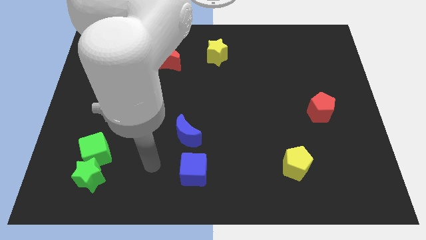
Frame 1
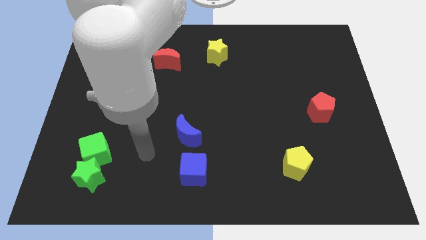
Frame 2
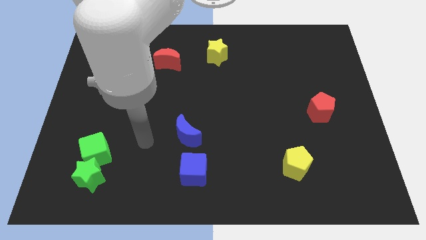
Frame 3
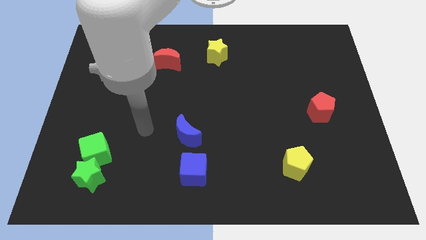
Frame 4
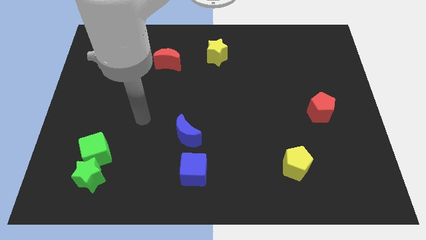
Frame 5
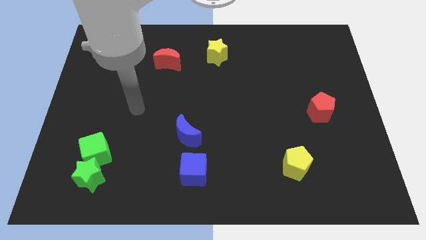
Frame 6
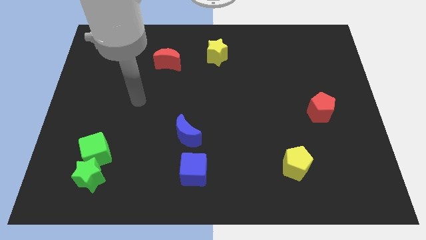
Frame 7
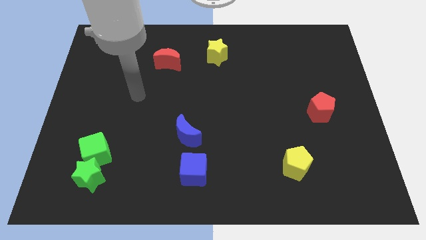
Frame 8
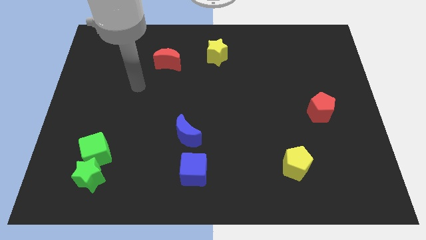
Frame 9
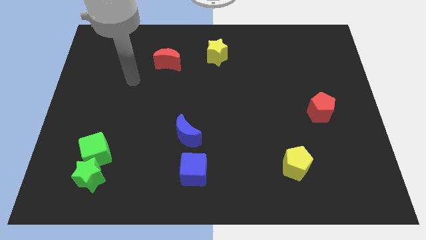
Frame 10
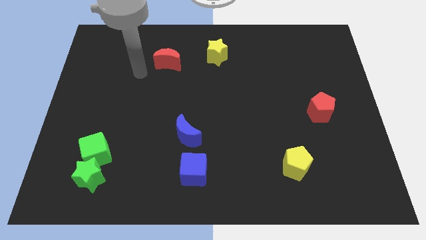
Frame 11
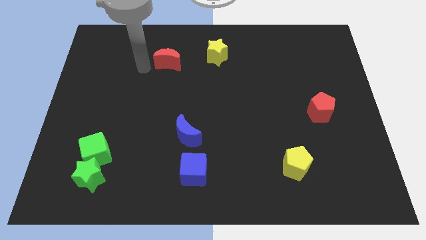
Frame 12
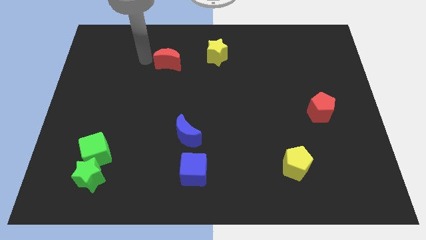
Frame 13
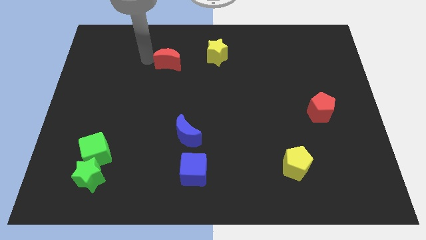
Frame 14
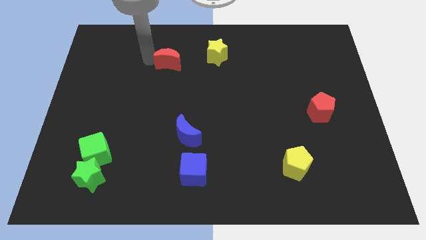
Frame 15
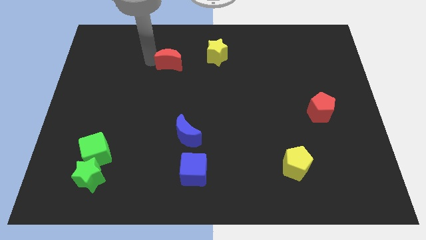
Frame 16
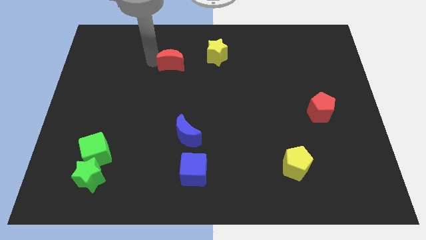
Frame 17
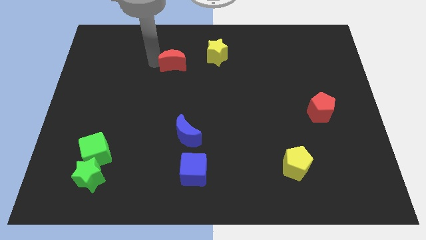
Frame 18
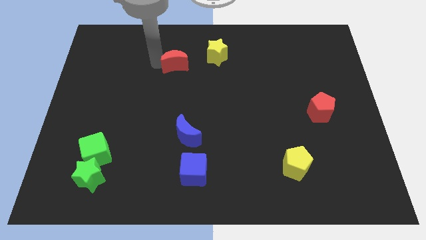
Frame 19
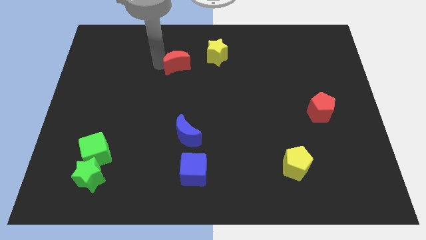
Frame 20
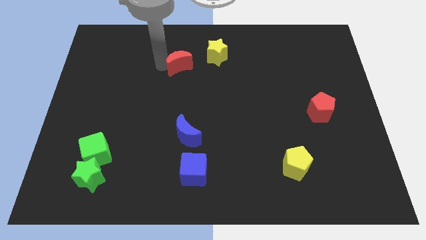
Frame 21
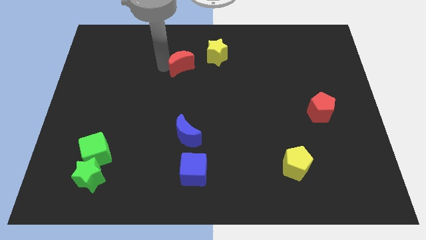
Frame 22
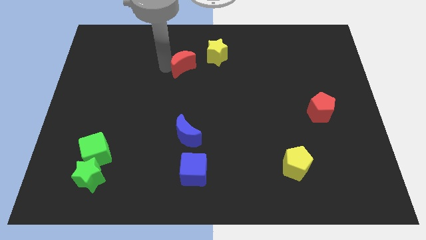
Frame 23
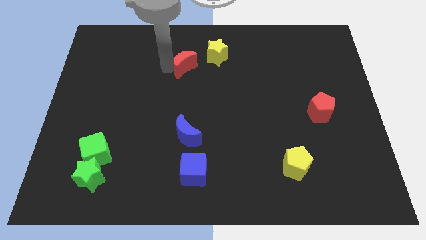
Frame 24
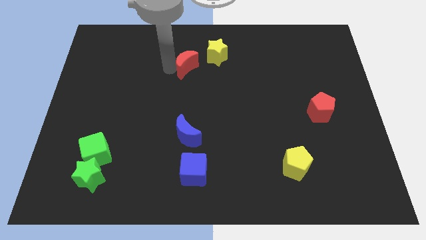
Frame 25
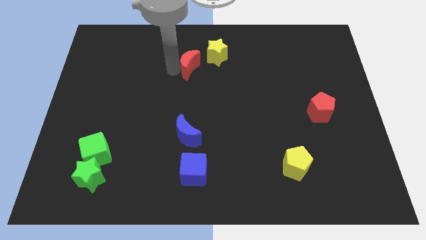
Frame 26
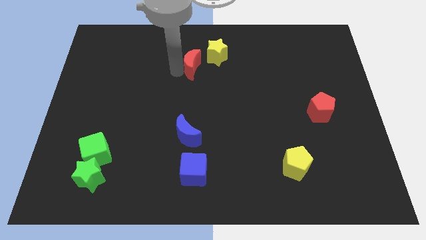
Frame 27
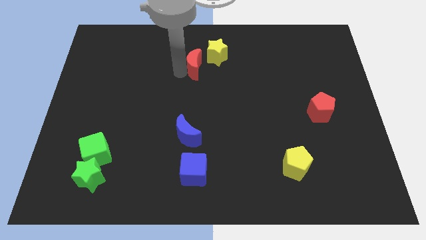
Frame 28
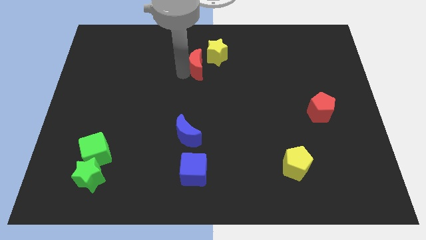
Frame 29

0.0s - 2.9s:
move the red moon to the right a little

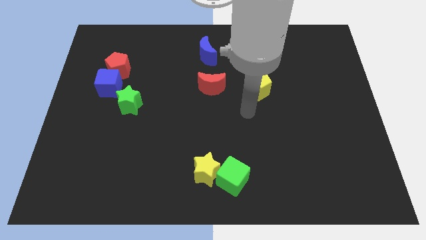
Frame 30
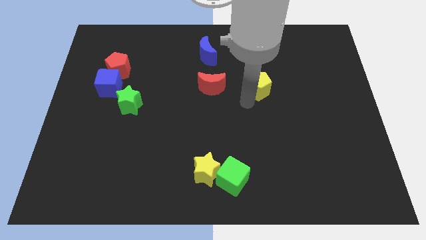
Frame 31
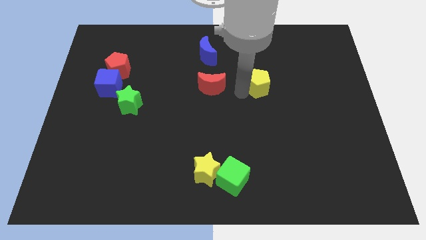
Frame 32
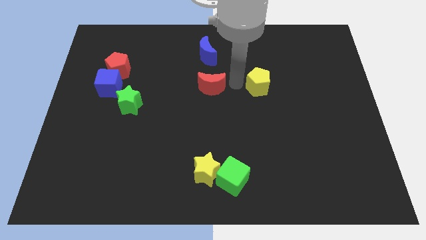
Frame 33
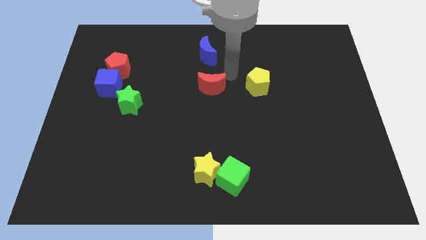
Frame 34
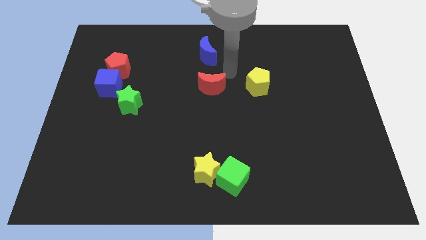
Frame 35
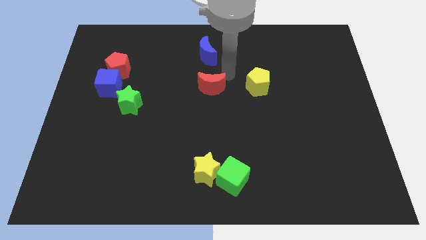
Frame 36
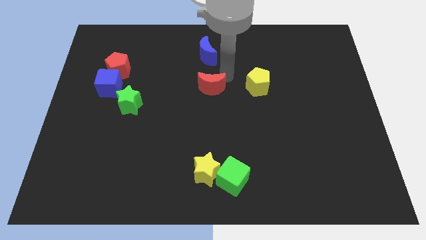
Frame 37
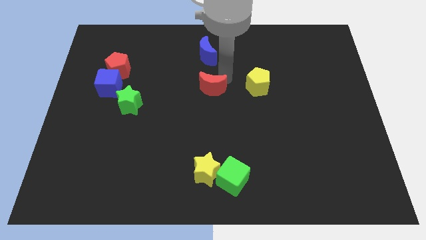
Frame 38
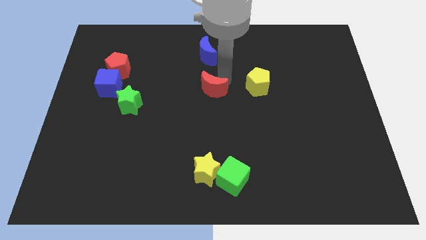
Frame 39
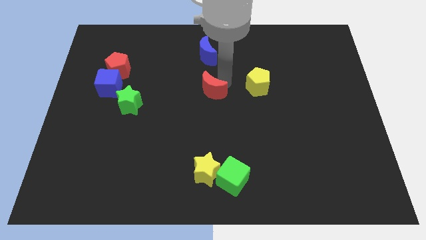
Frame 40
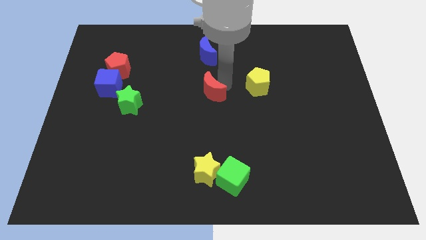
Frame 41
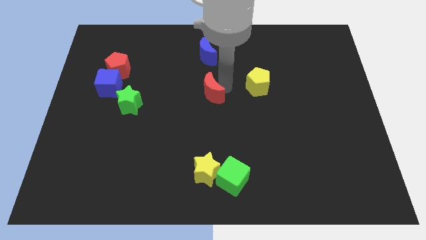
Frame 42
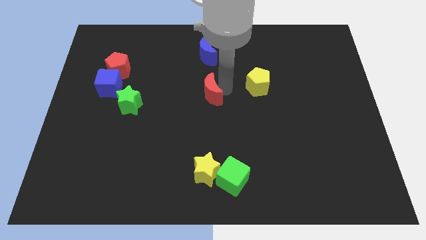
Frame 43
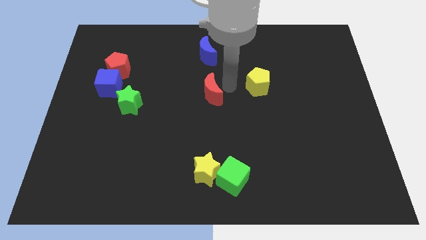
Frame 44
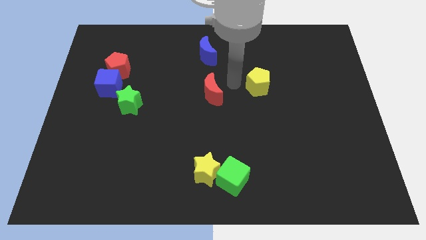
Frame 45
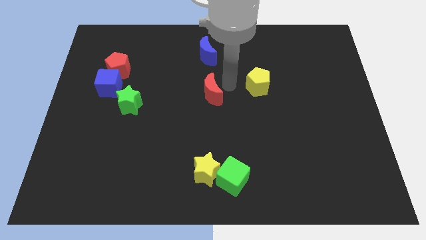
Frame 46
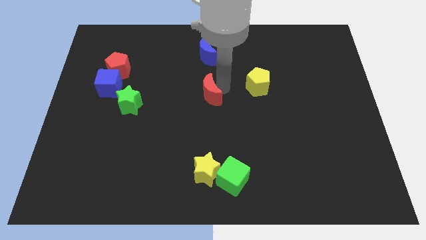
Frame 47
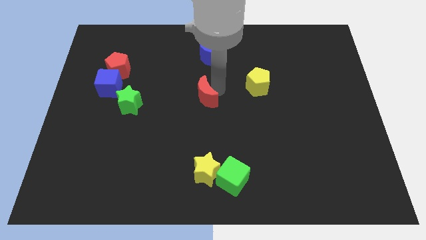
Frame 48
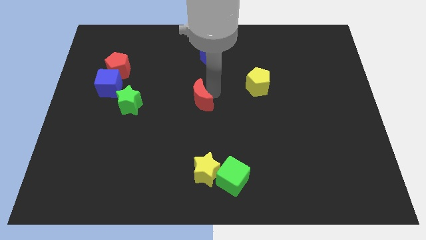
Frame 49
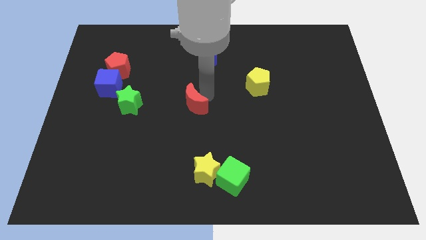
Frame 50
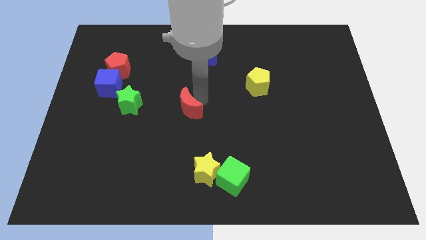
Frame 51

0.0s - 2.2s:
slightly push the red moon downwards and left diagonally

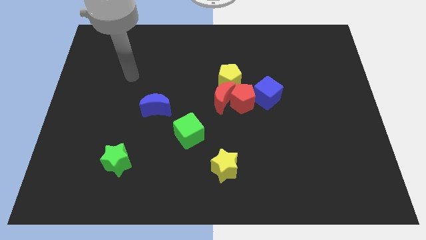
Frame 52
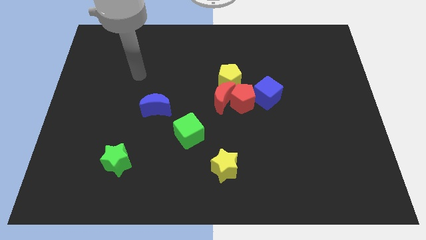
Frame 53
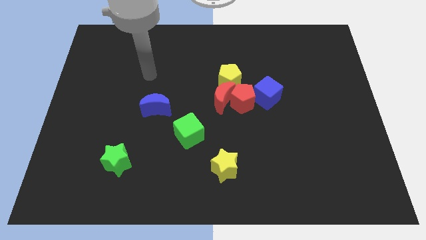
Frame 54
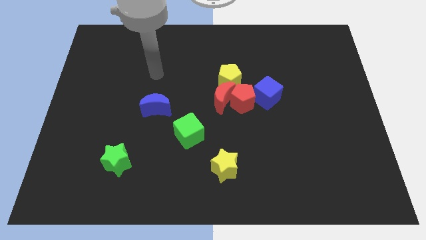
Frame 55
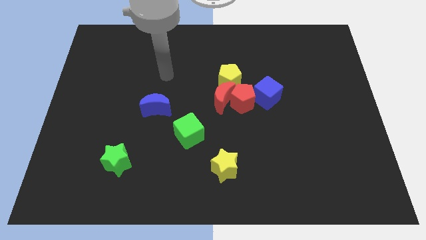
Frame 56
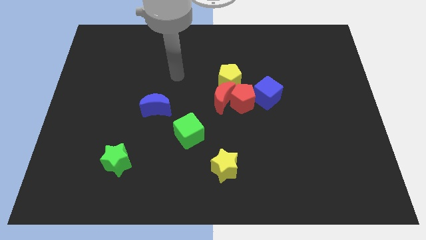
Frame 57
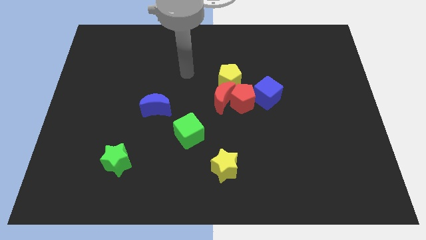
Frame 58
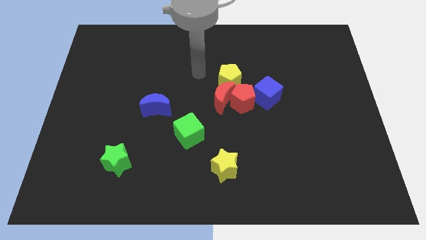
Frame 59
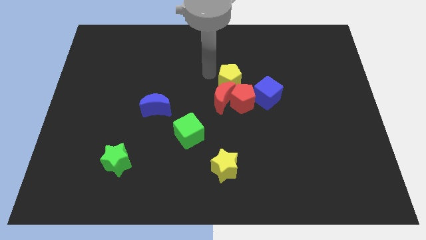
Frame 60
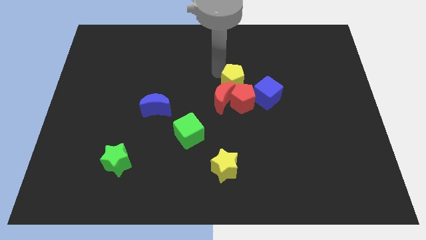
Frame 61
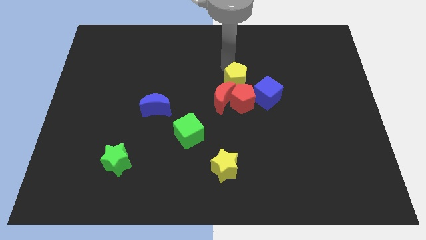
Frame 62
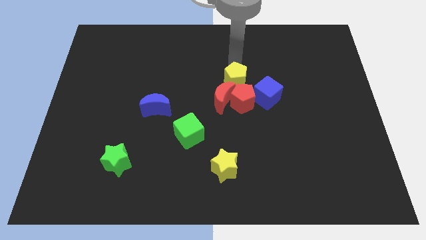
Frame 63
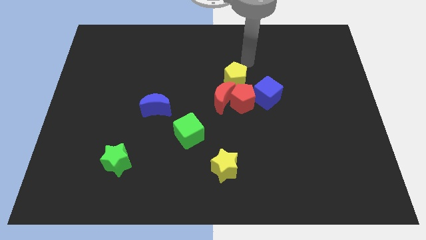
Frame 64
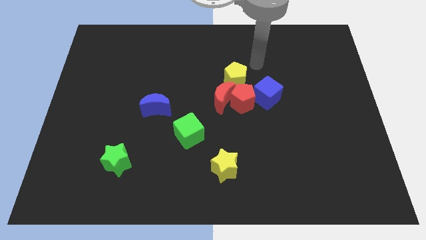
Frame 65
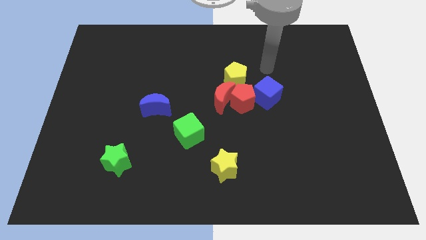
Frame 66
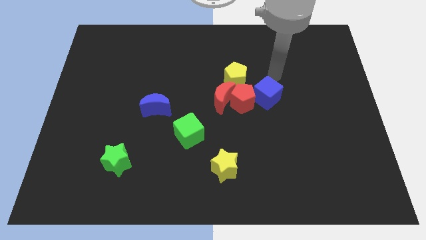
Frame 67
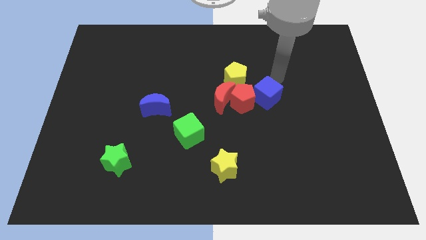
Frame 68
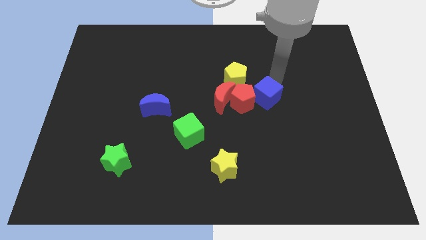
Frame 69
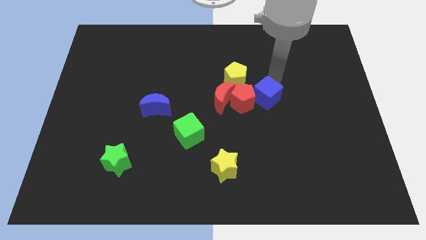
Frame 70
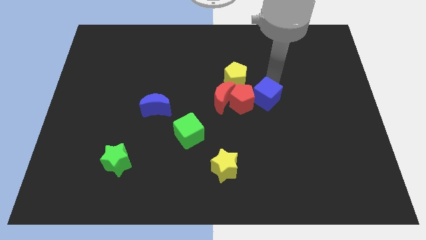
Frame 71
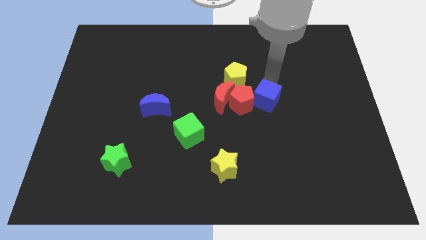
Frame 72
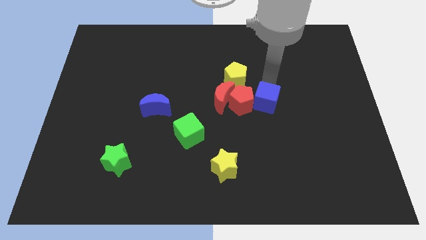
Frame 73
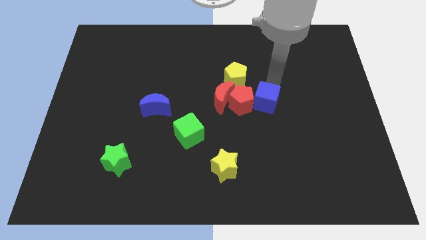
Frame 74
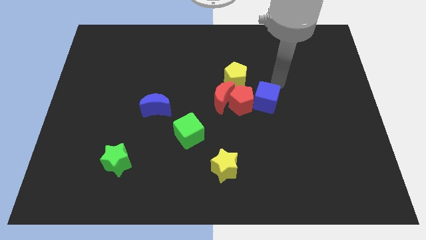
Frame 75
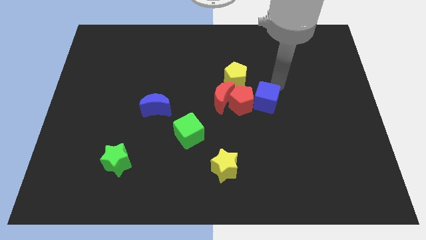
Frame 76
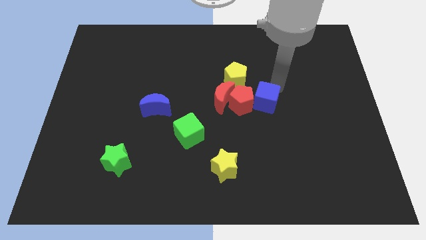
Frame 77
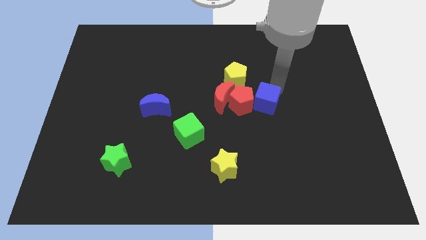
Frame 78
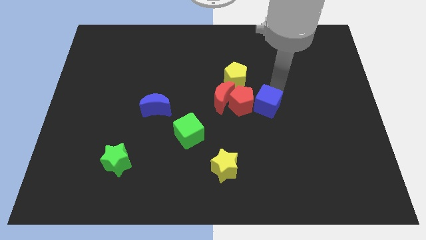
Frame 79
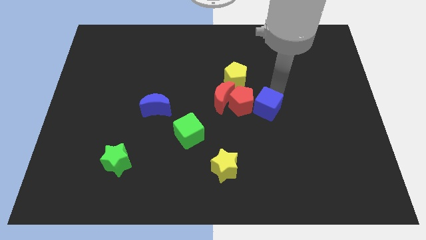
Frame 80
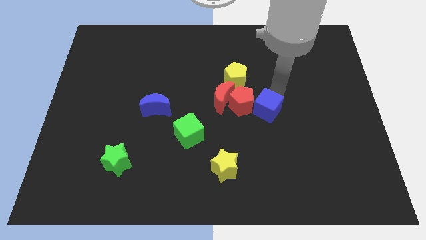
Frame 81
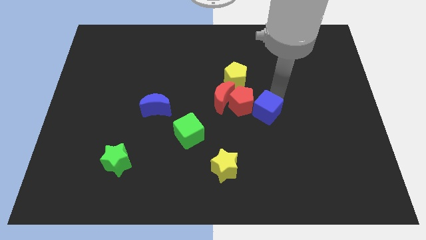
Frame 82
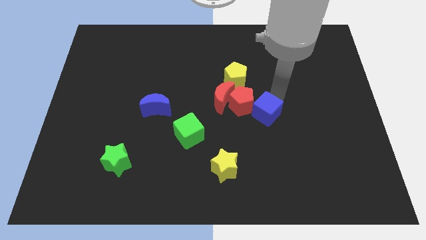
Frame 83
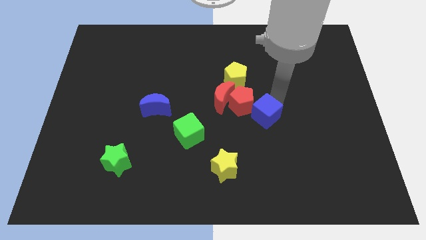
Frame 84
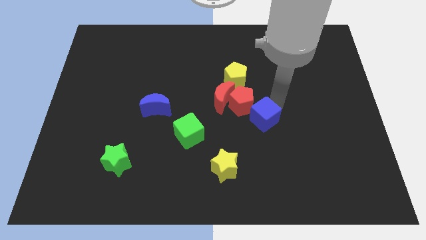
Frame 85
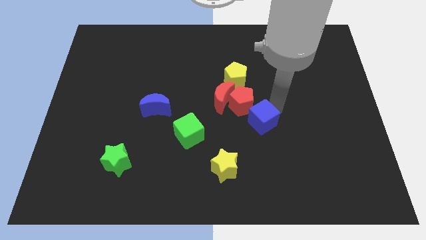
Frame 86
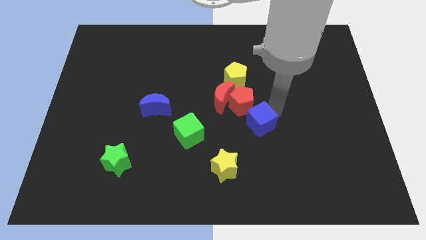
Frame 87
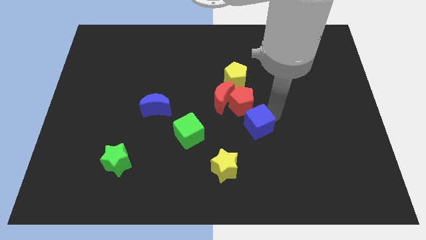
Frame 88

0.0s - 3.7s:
slide the blue cube slightly downwards and left
